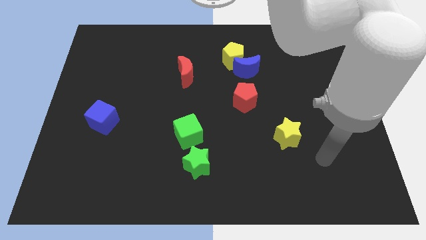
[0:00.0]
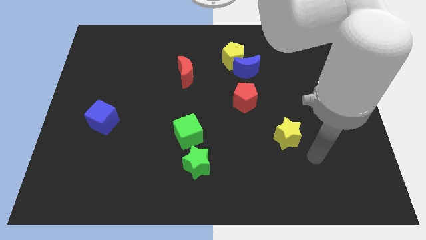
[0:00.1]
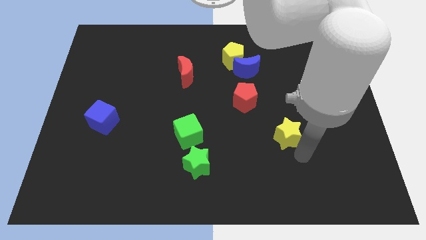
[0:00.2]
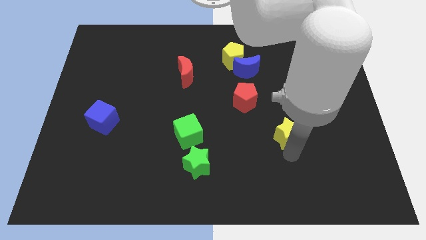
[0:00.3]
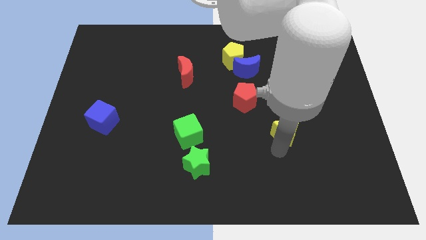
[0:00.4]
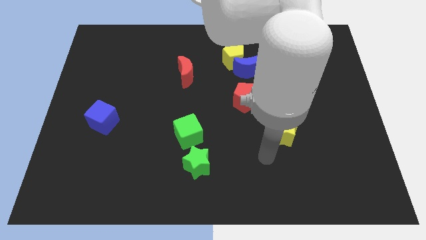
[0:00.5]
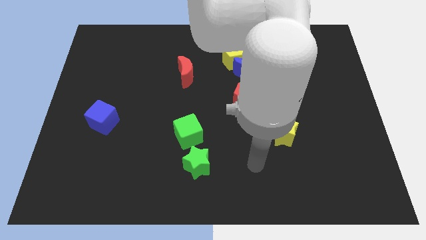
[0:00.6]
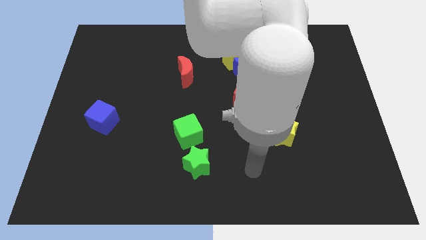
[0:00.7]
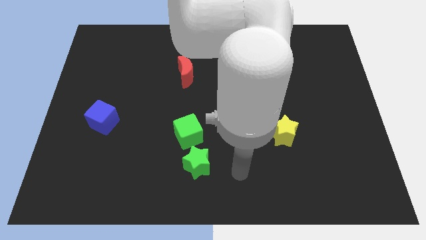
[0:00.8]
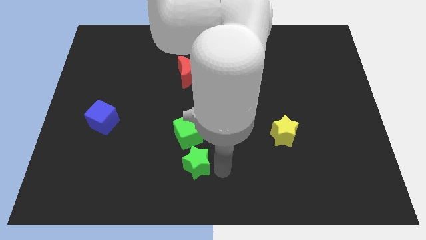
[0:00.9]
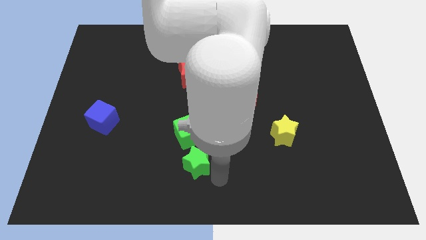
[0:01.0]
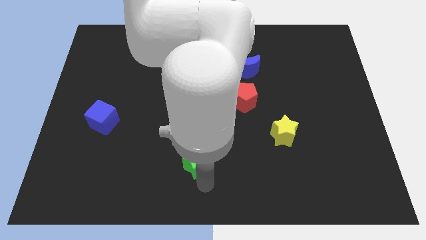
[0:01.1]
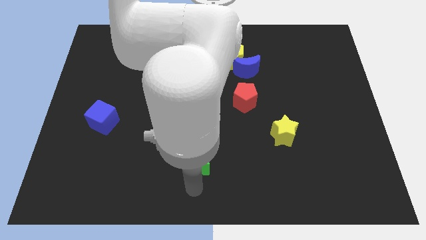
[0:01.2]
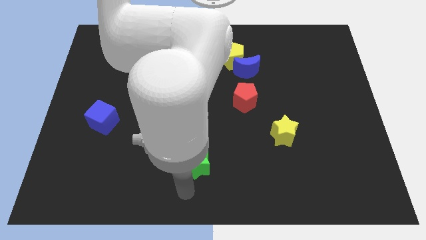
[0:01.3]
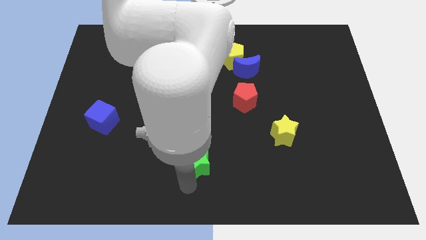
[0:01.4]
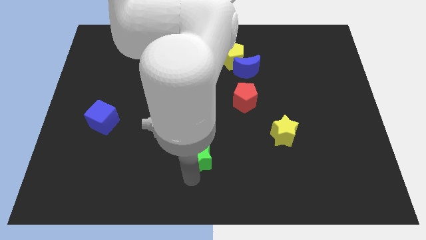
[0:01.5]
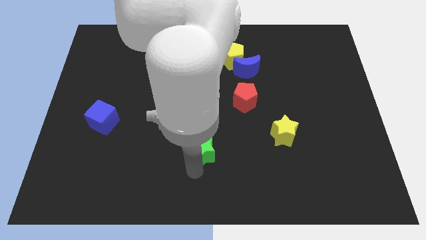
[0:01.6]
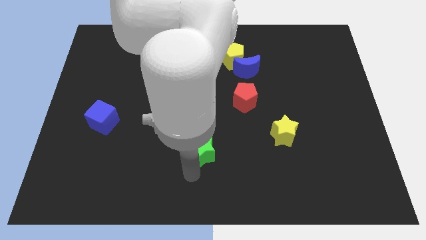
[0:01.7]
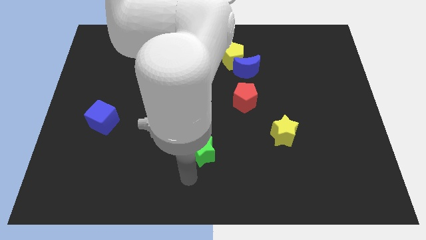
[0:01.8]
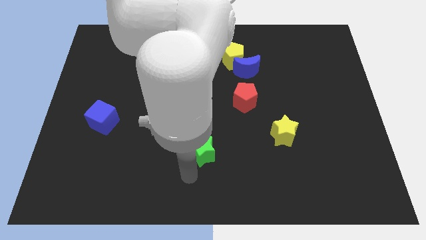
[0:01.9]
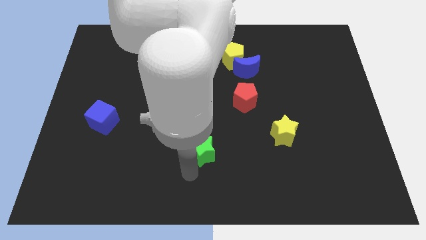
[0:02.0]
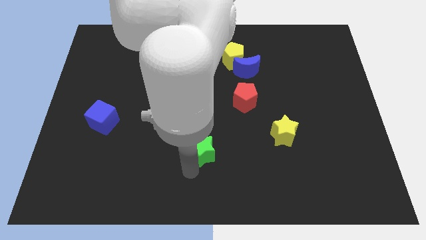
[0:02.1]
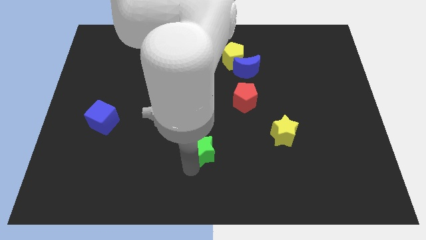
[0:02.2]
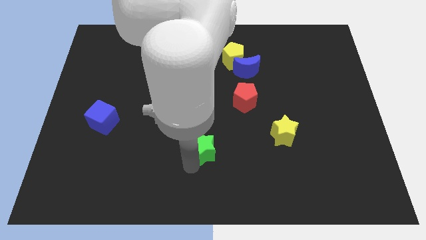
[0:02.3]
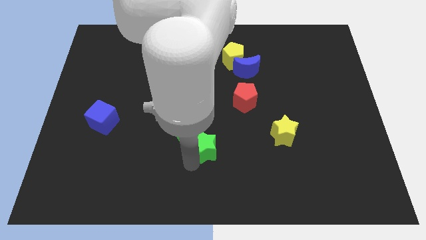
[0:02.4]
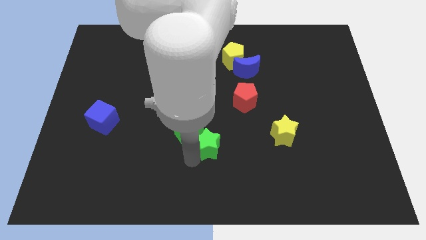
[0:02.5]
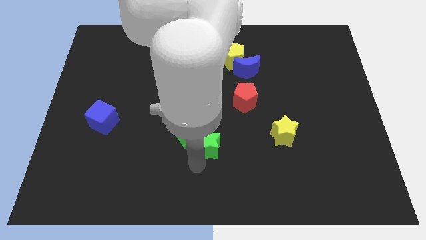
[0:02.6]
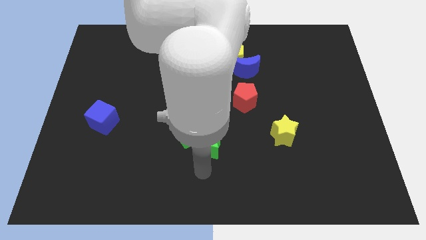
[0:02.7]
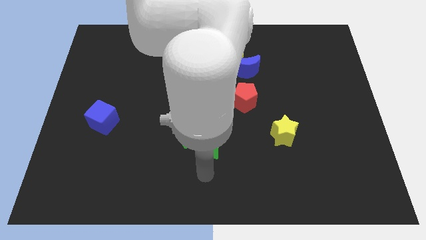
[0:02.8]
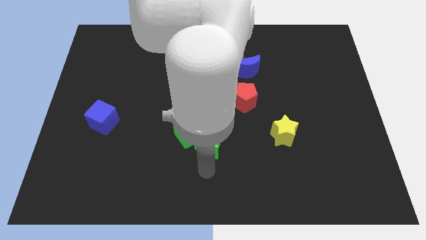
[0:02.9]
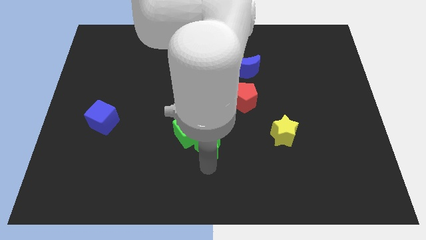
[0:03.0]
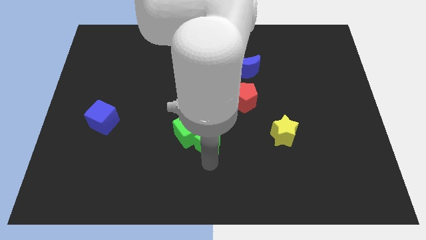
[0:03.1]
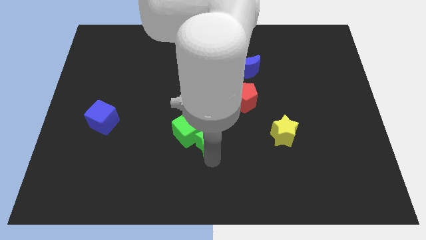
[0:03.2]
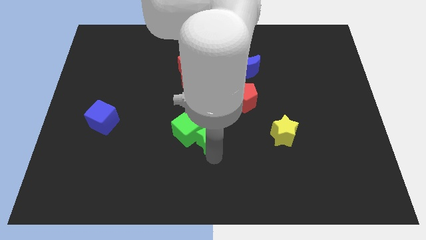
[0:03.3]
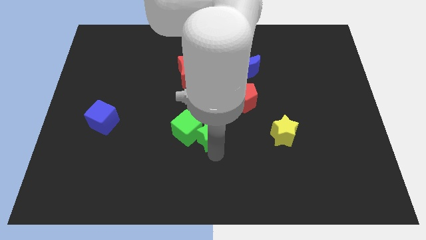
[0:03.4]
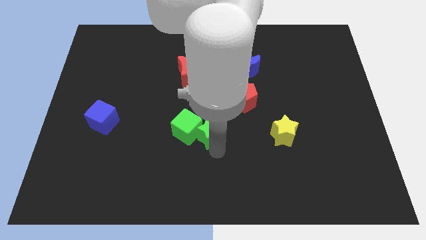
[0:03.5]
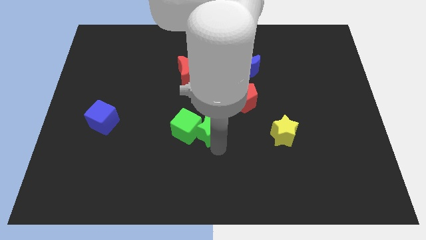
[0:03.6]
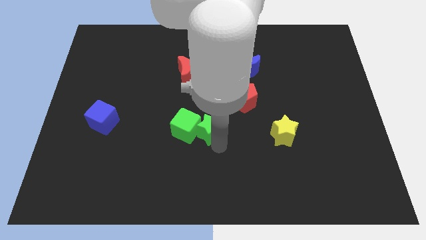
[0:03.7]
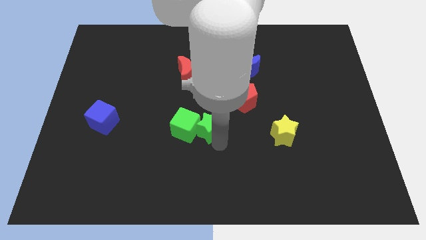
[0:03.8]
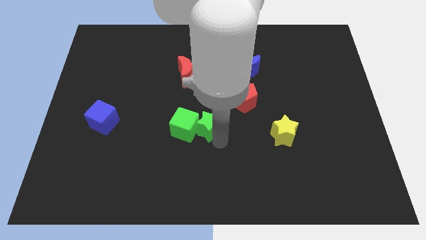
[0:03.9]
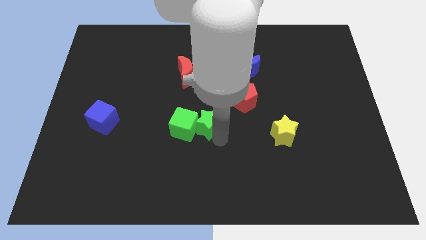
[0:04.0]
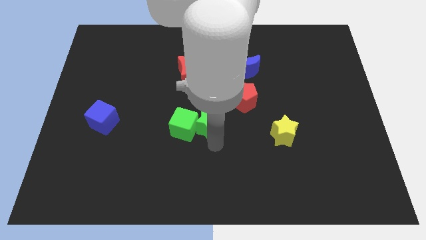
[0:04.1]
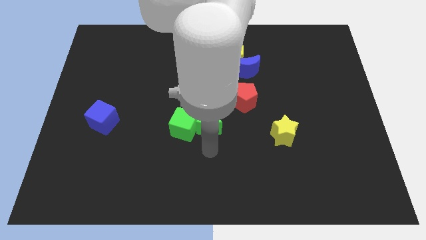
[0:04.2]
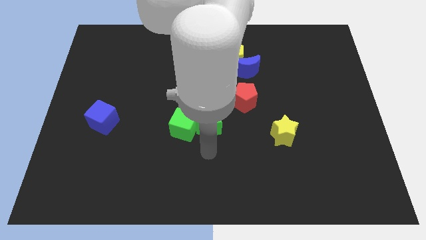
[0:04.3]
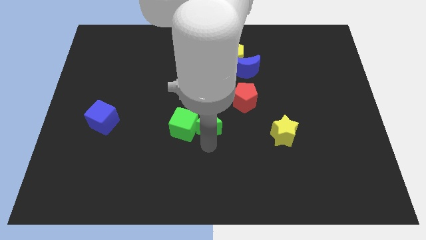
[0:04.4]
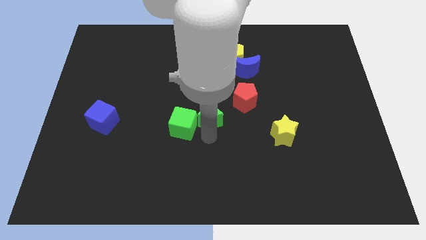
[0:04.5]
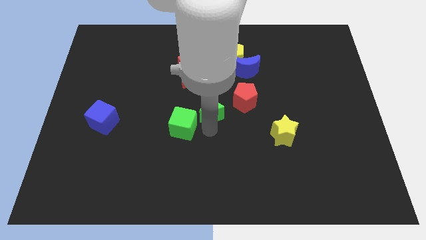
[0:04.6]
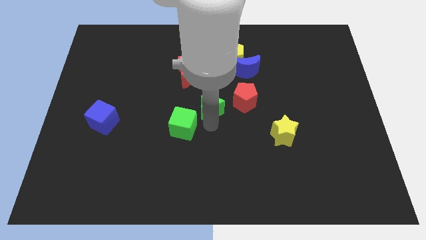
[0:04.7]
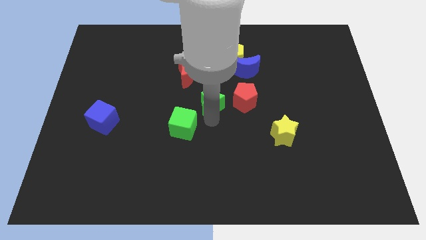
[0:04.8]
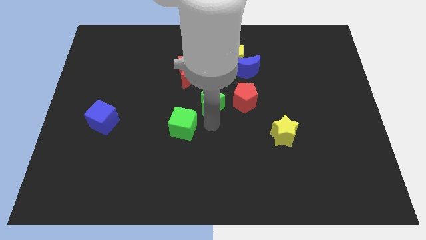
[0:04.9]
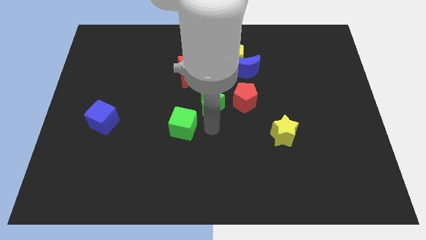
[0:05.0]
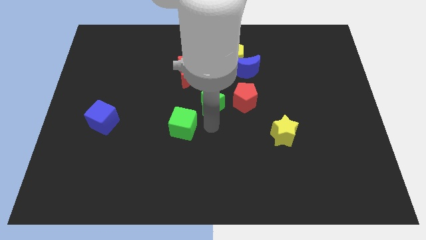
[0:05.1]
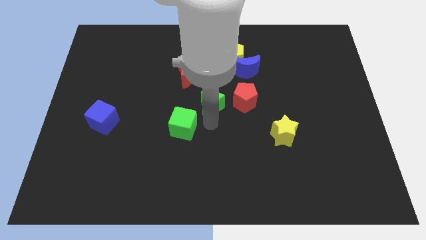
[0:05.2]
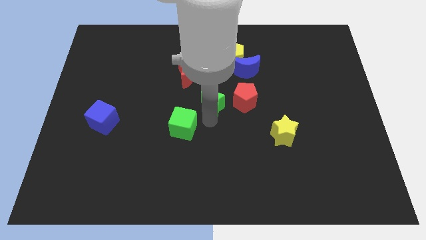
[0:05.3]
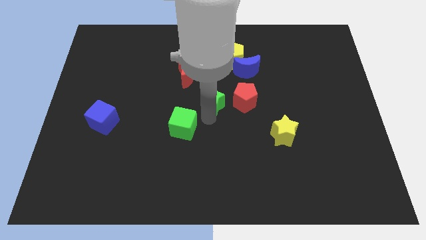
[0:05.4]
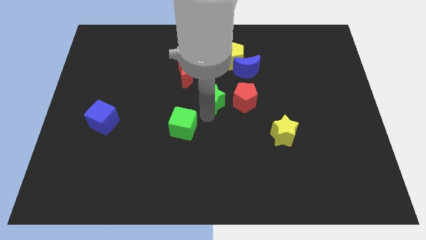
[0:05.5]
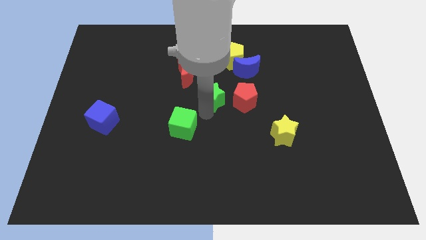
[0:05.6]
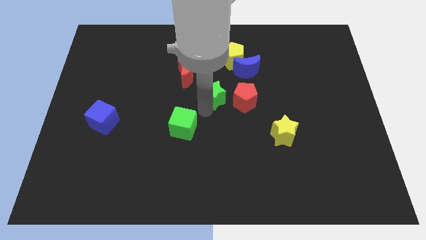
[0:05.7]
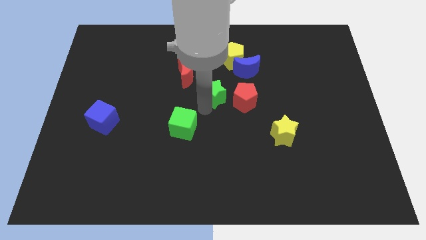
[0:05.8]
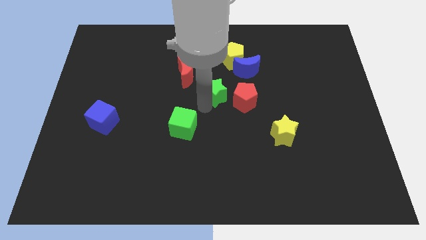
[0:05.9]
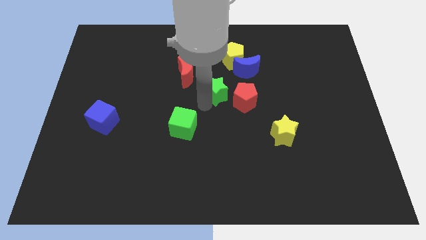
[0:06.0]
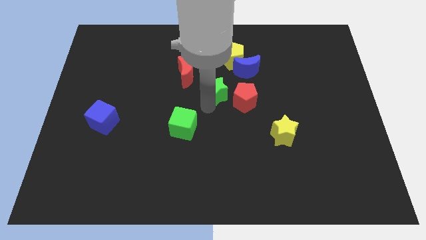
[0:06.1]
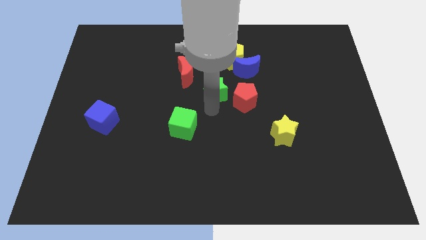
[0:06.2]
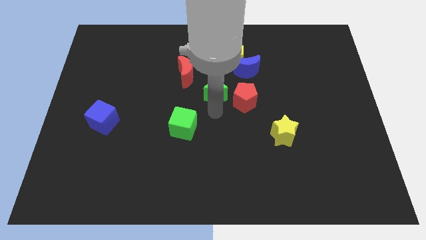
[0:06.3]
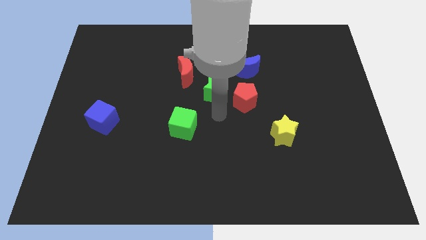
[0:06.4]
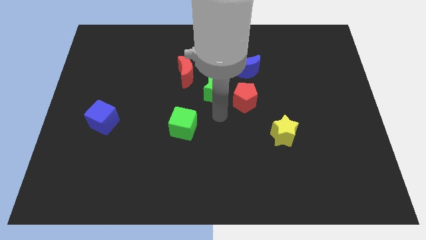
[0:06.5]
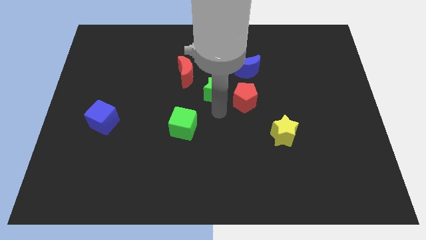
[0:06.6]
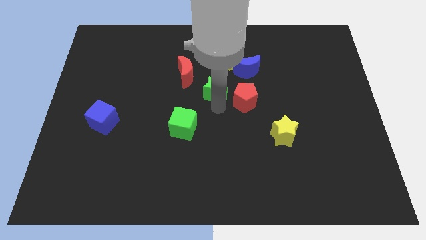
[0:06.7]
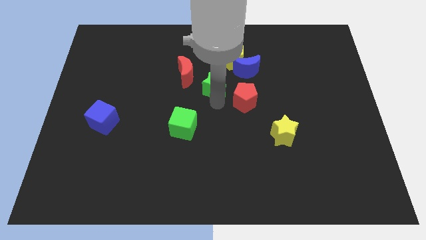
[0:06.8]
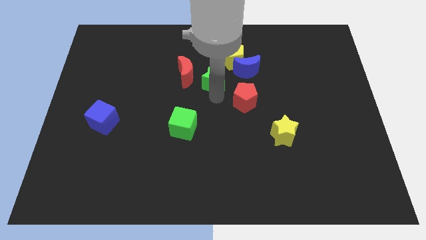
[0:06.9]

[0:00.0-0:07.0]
slide the green star left of the blue moon
